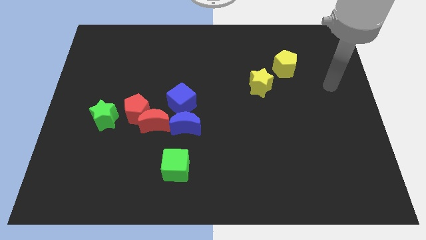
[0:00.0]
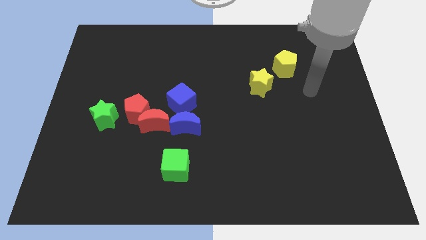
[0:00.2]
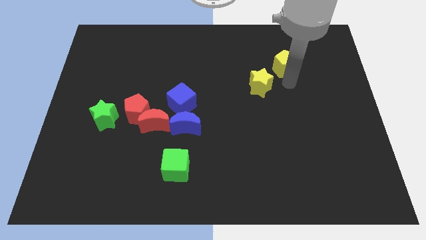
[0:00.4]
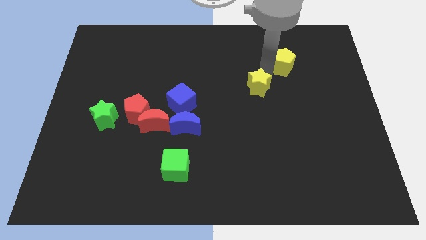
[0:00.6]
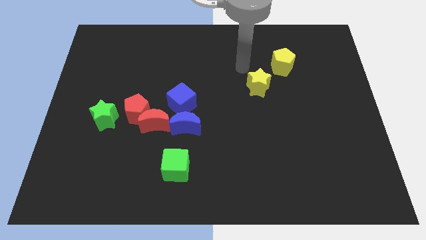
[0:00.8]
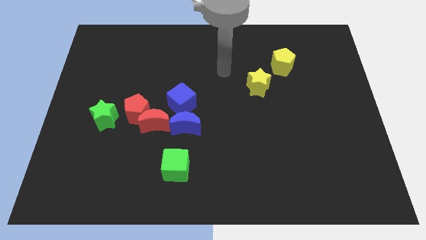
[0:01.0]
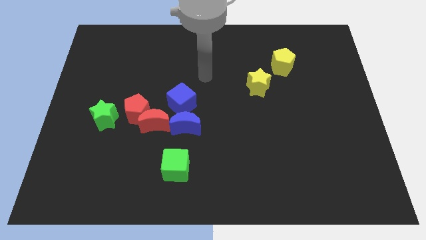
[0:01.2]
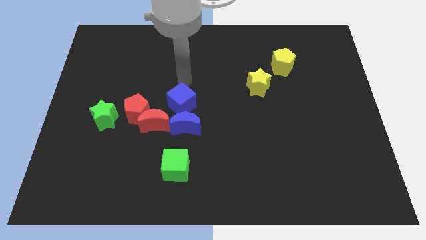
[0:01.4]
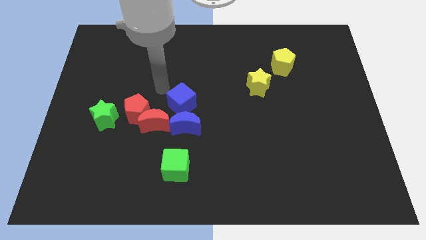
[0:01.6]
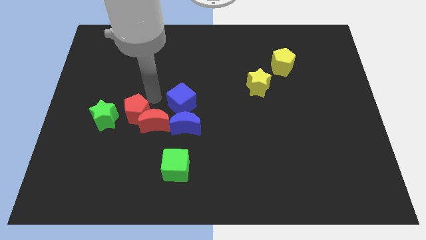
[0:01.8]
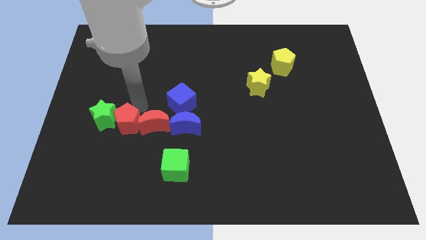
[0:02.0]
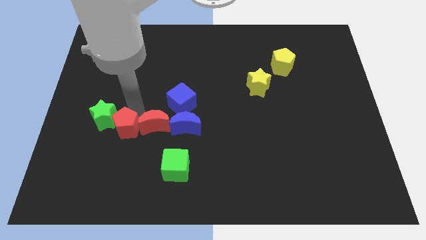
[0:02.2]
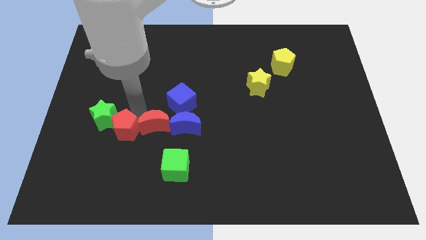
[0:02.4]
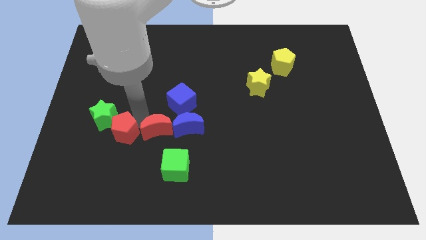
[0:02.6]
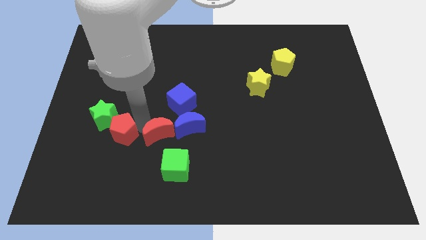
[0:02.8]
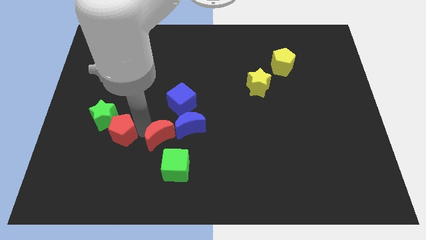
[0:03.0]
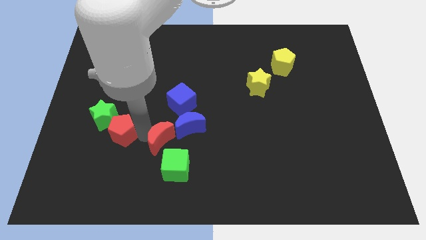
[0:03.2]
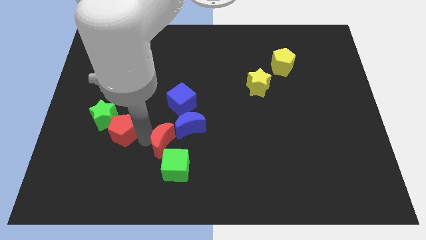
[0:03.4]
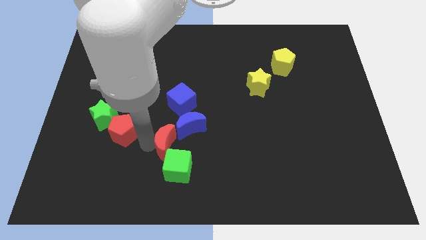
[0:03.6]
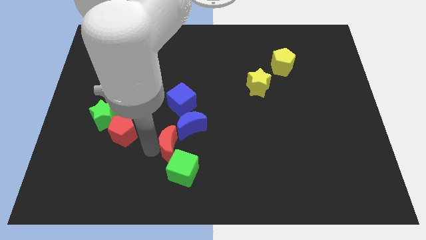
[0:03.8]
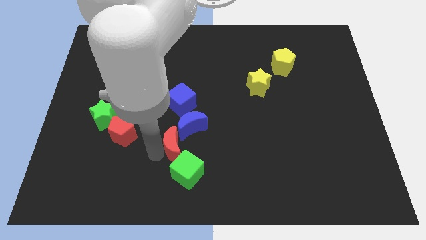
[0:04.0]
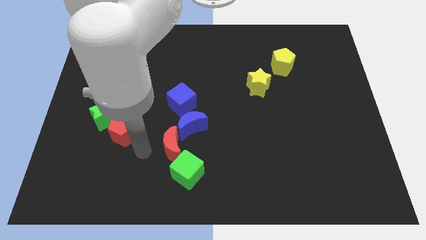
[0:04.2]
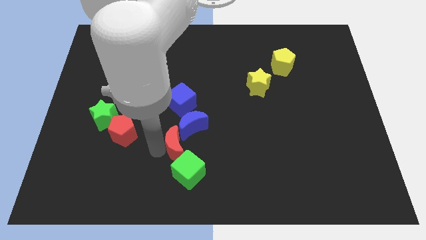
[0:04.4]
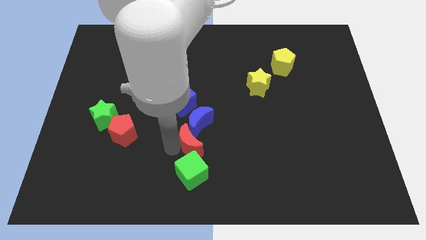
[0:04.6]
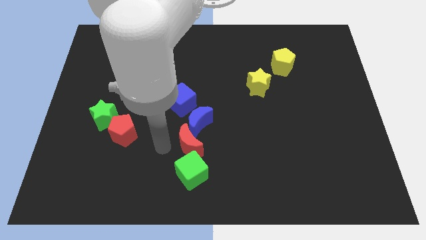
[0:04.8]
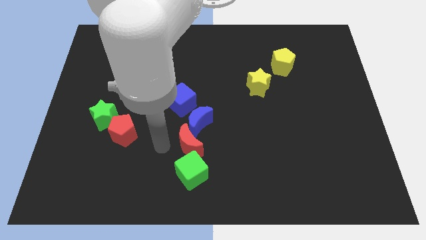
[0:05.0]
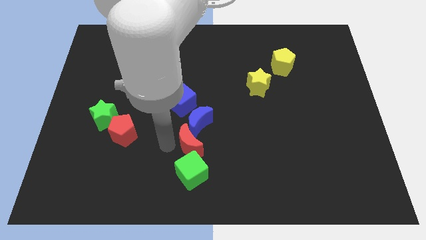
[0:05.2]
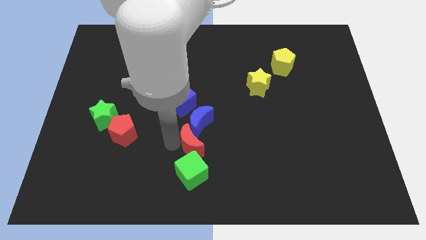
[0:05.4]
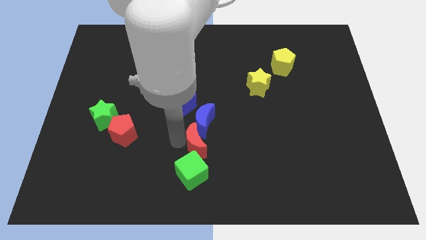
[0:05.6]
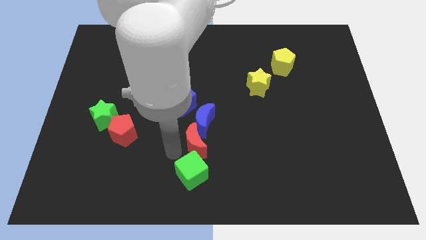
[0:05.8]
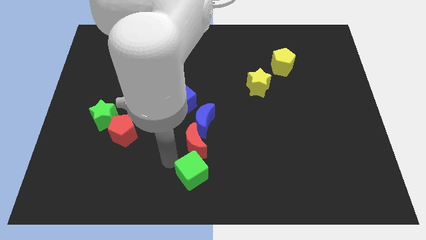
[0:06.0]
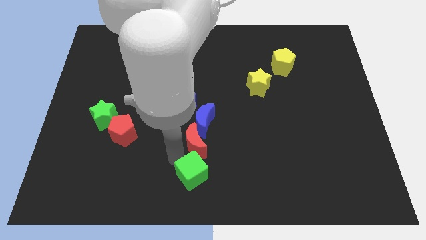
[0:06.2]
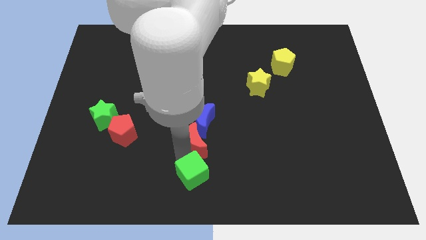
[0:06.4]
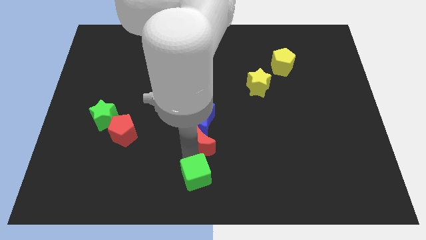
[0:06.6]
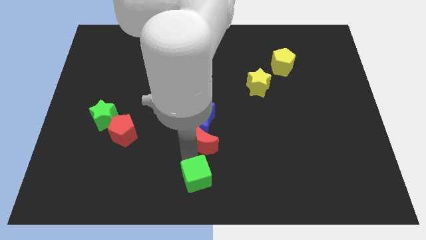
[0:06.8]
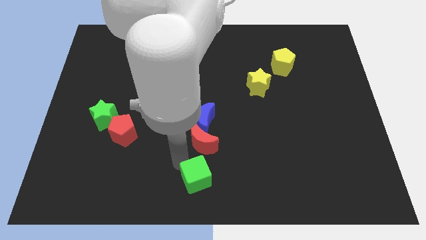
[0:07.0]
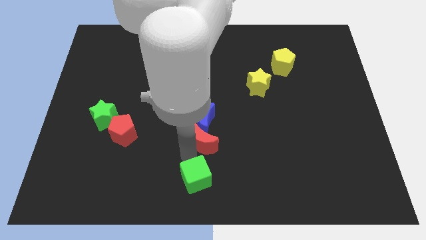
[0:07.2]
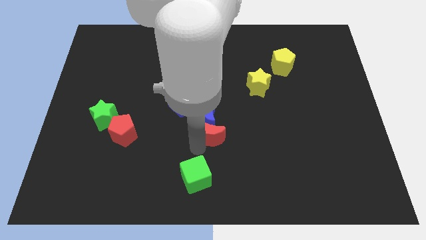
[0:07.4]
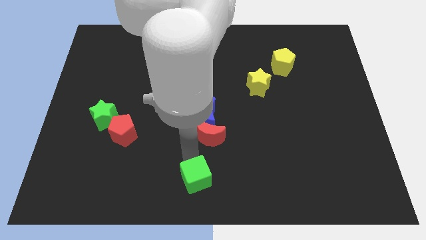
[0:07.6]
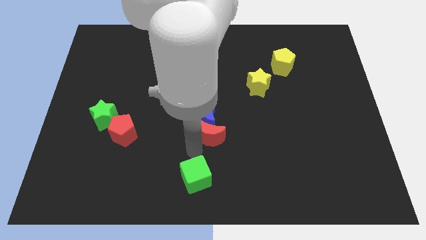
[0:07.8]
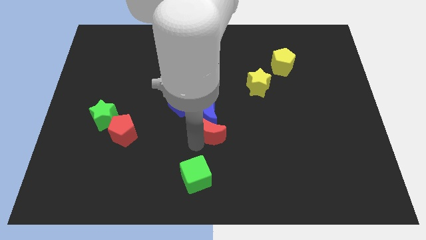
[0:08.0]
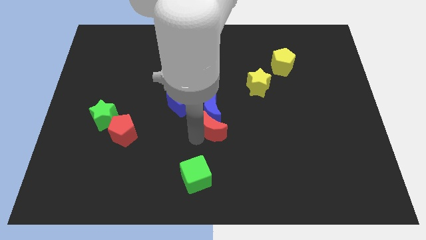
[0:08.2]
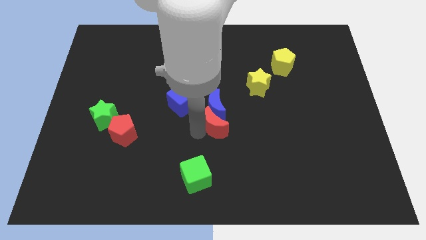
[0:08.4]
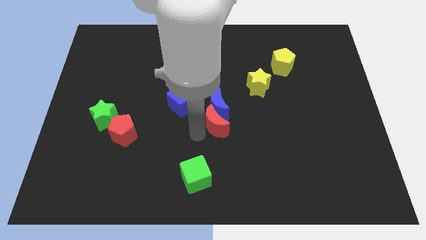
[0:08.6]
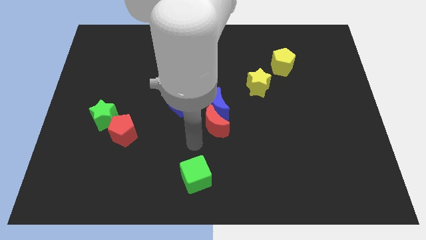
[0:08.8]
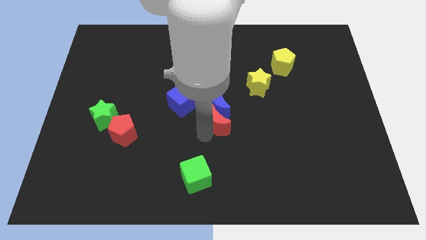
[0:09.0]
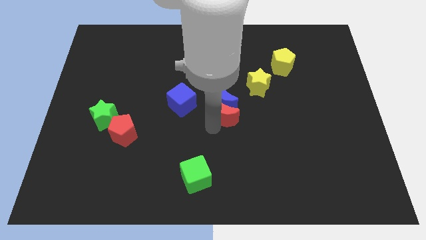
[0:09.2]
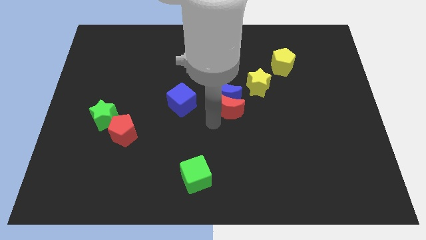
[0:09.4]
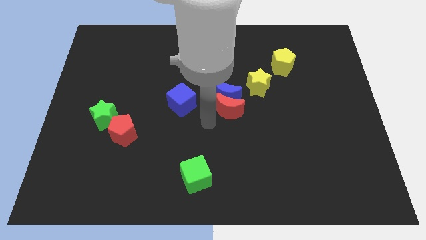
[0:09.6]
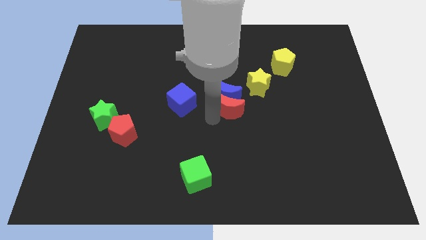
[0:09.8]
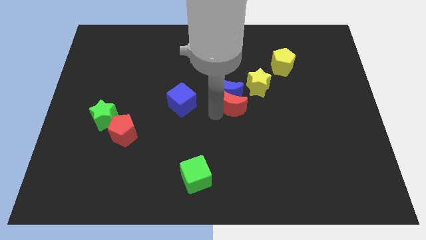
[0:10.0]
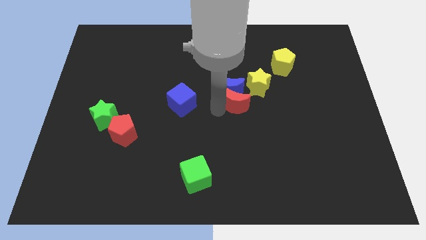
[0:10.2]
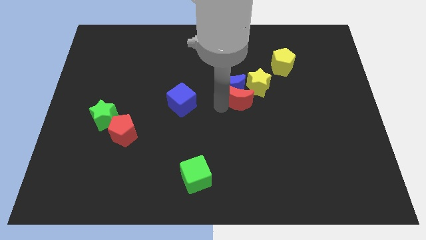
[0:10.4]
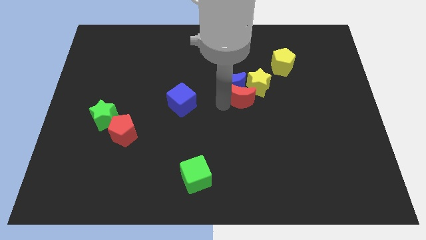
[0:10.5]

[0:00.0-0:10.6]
put the red moon close to the yellow star

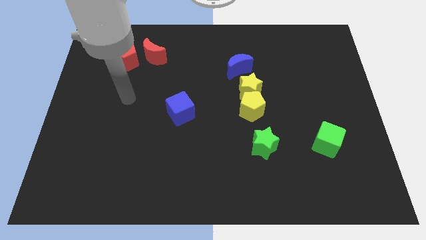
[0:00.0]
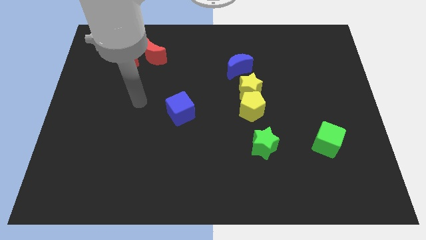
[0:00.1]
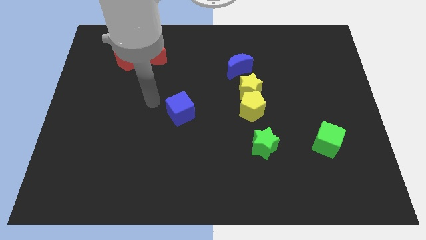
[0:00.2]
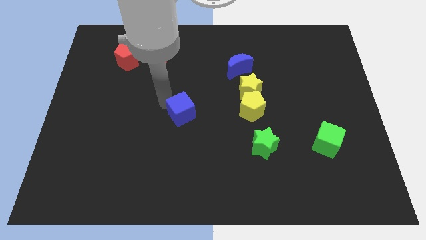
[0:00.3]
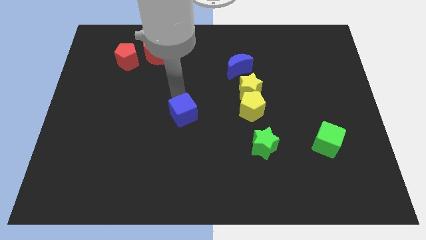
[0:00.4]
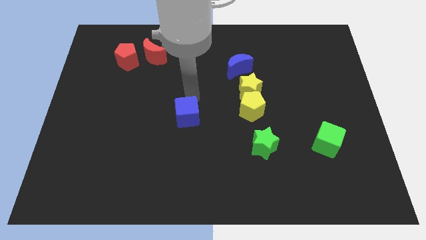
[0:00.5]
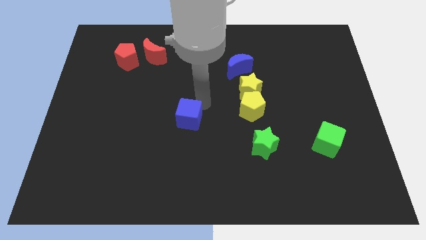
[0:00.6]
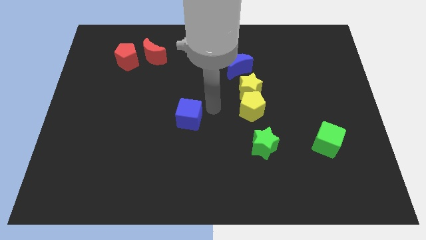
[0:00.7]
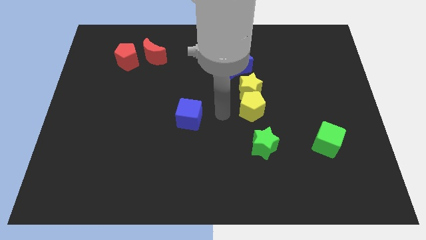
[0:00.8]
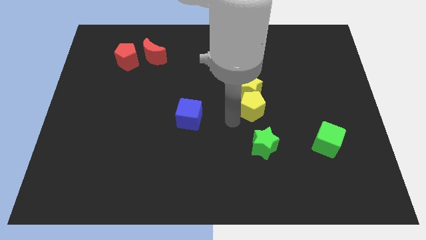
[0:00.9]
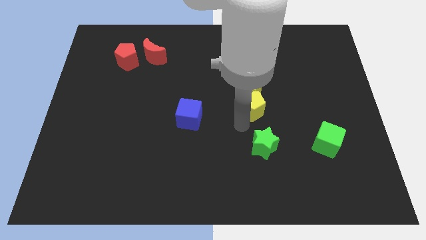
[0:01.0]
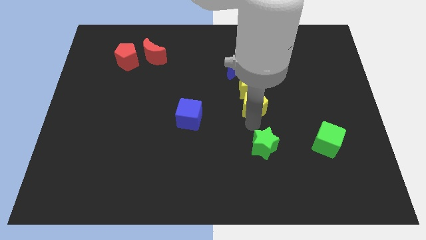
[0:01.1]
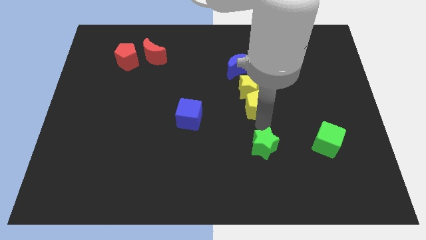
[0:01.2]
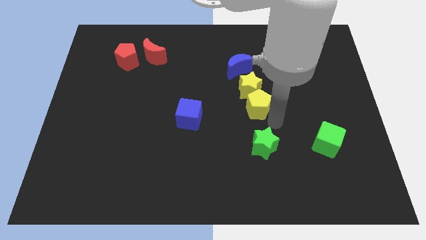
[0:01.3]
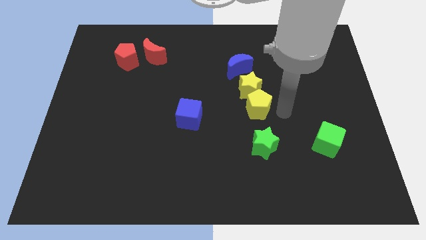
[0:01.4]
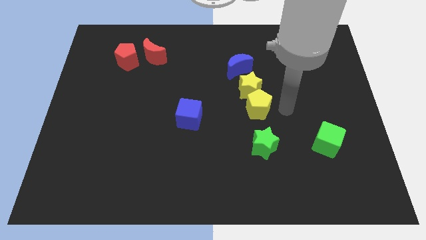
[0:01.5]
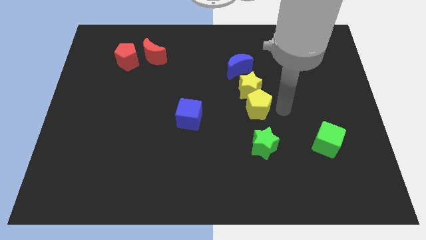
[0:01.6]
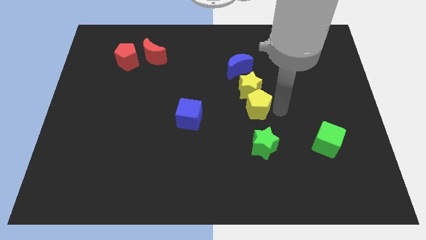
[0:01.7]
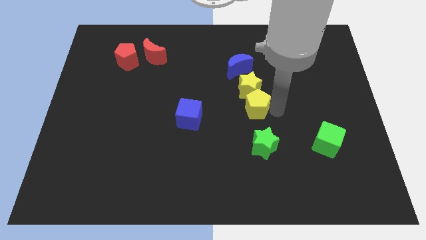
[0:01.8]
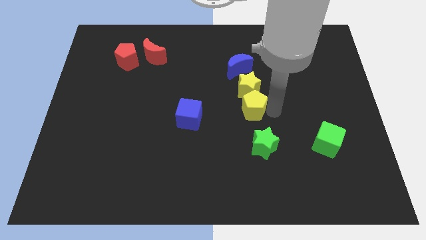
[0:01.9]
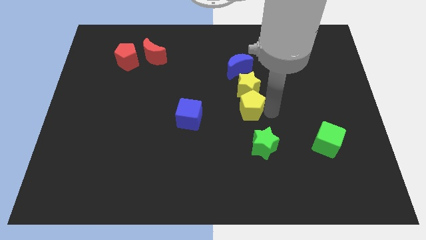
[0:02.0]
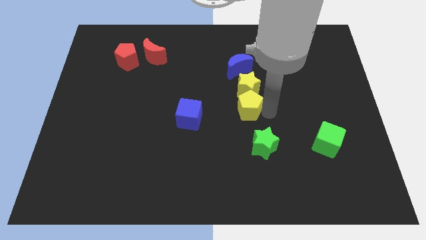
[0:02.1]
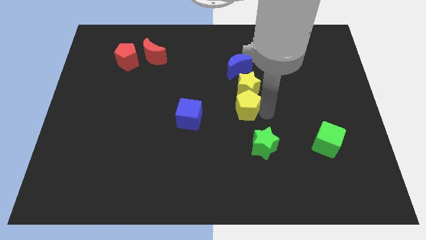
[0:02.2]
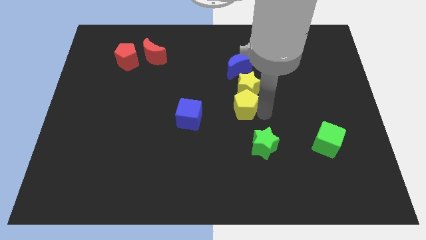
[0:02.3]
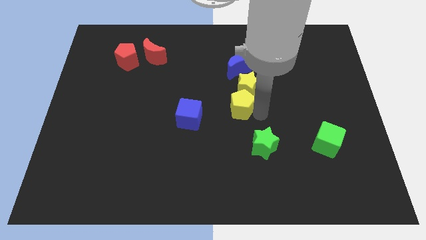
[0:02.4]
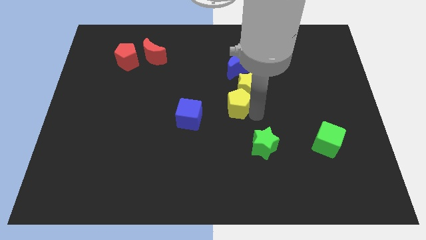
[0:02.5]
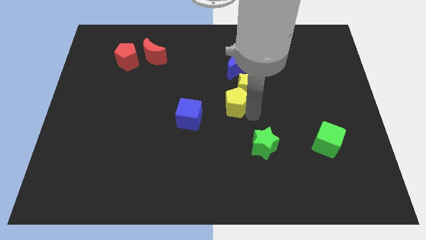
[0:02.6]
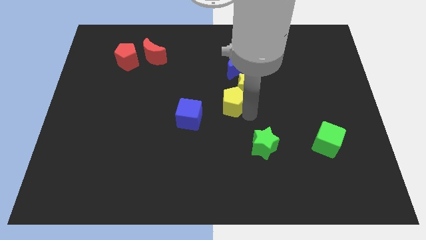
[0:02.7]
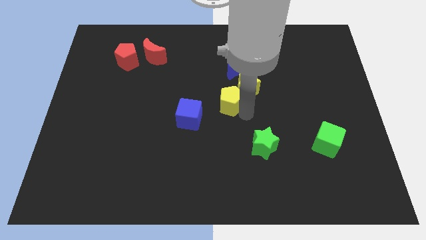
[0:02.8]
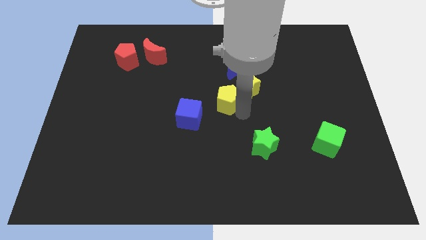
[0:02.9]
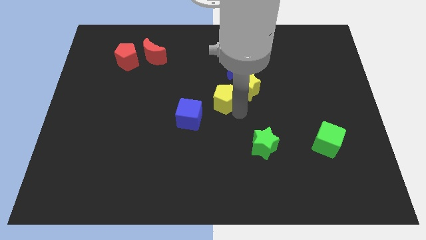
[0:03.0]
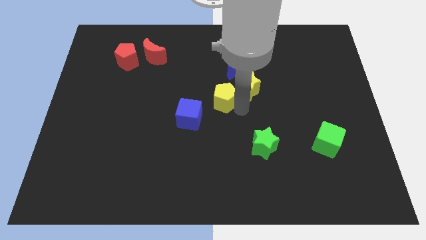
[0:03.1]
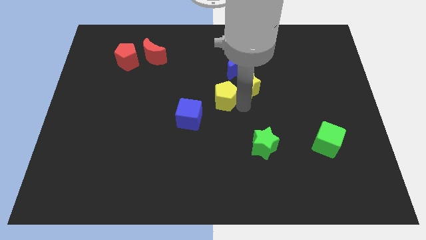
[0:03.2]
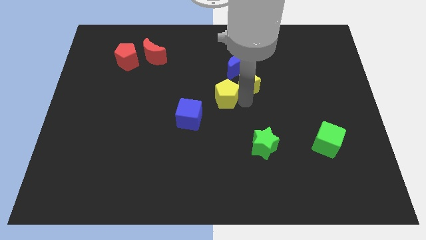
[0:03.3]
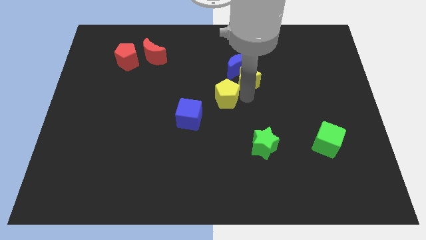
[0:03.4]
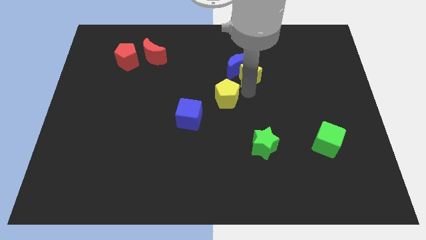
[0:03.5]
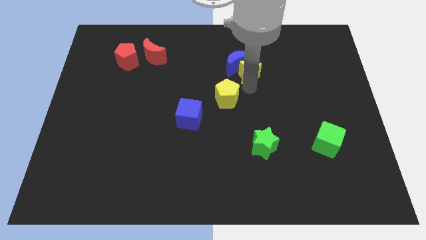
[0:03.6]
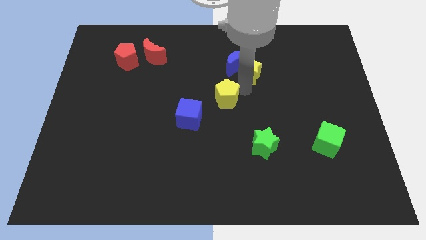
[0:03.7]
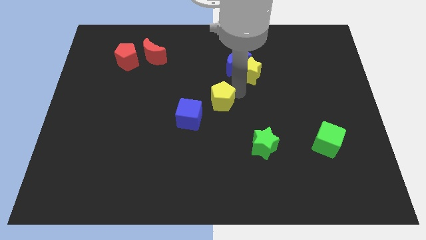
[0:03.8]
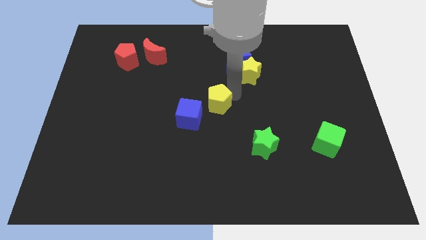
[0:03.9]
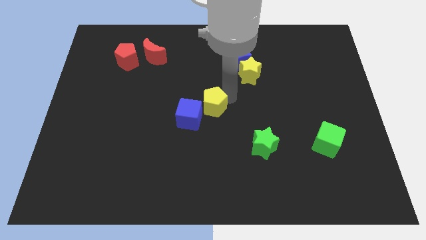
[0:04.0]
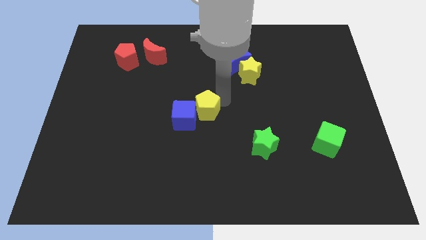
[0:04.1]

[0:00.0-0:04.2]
move the yellow pentagon towards the blue cube
